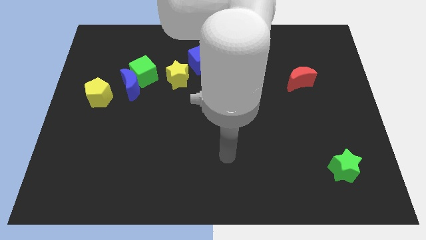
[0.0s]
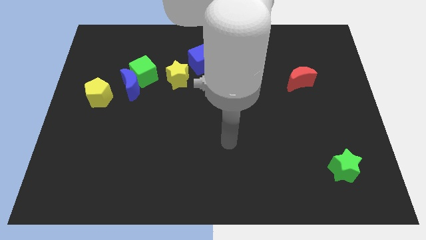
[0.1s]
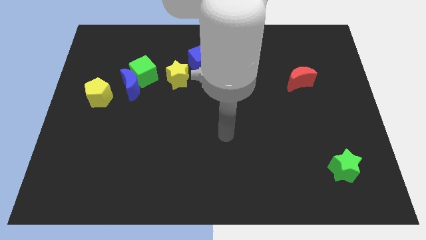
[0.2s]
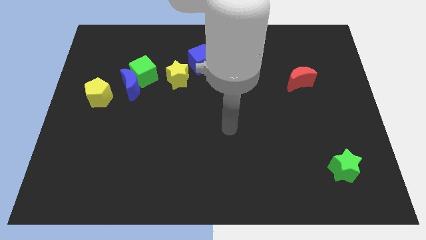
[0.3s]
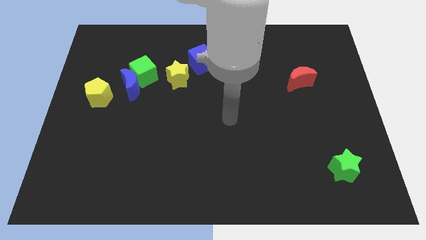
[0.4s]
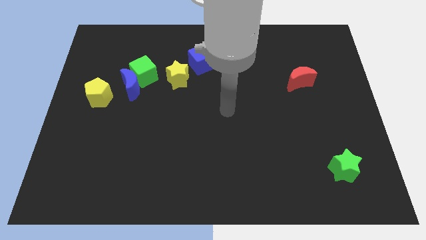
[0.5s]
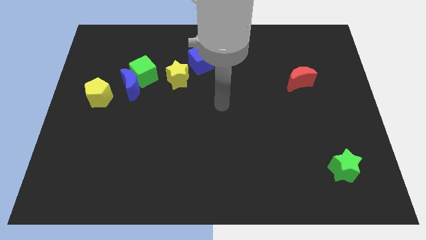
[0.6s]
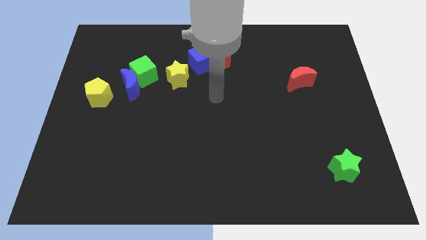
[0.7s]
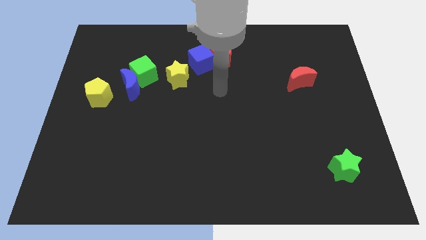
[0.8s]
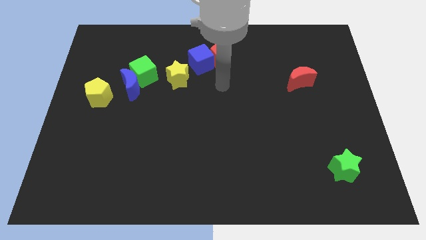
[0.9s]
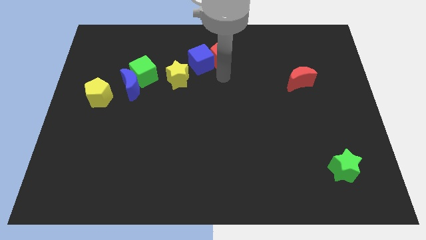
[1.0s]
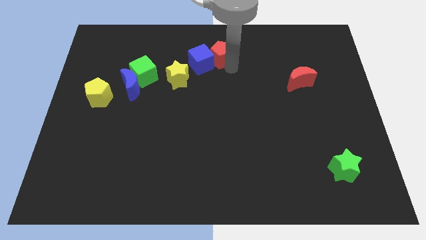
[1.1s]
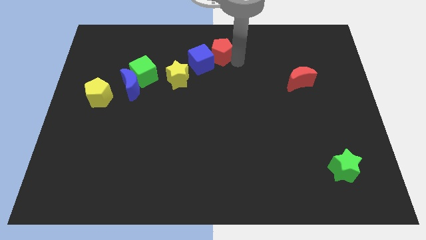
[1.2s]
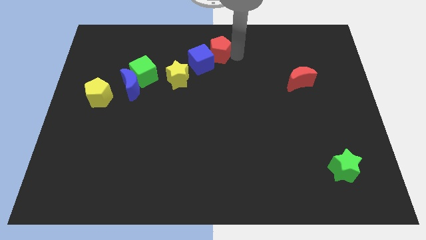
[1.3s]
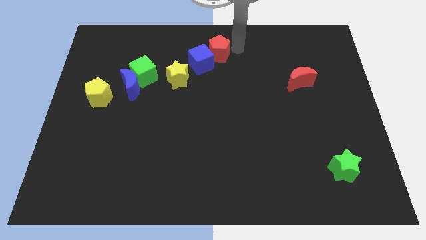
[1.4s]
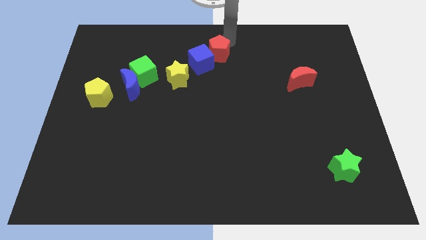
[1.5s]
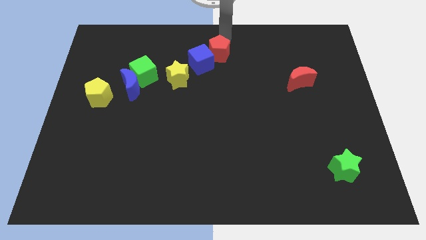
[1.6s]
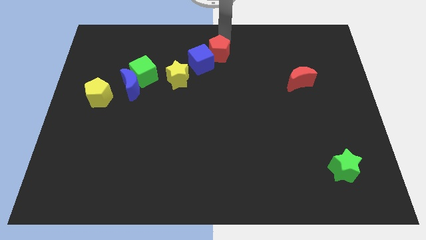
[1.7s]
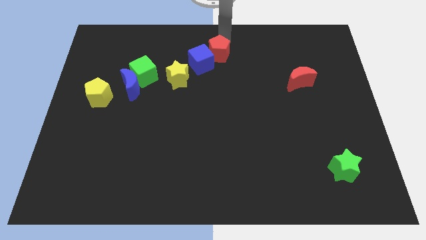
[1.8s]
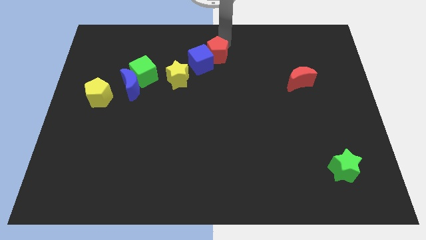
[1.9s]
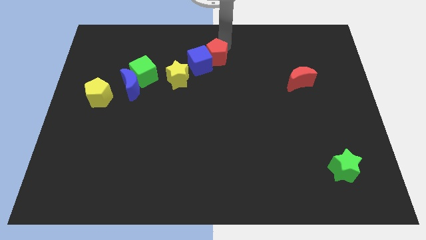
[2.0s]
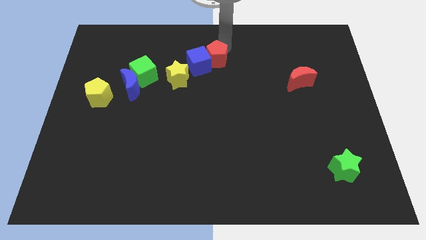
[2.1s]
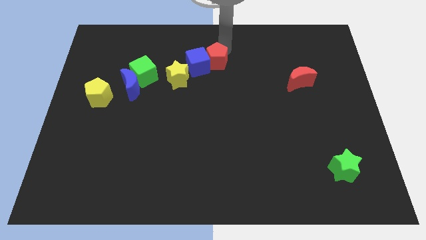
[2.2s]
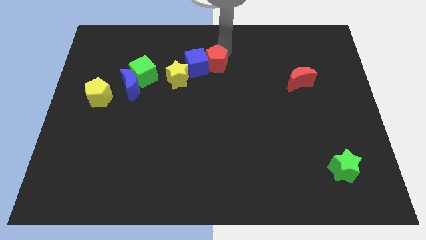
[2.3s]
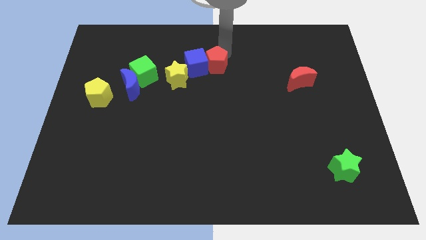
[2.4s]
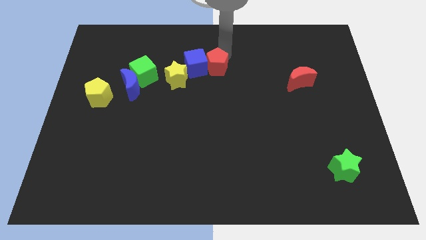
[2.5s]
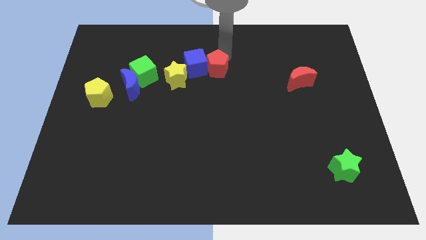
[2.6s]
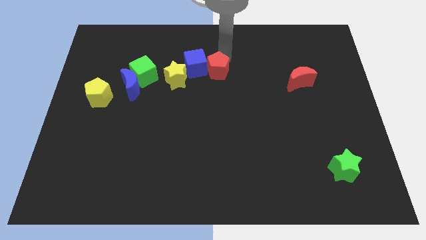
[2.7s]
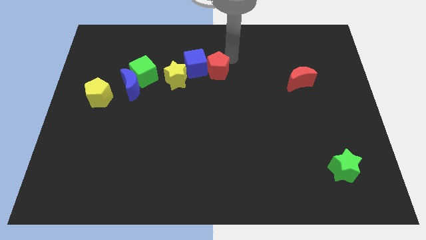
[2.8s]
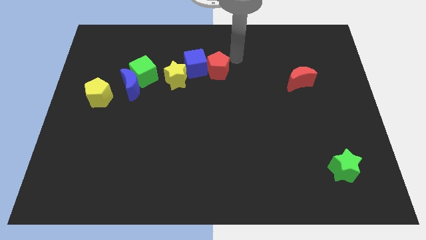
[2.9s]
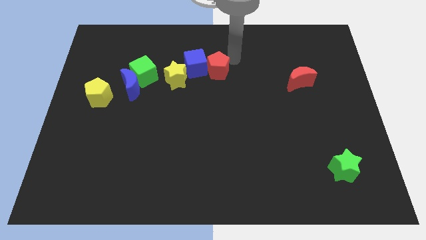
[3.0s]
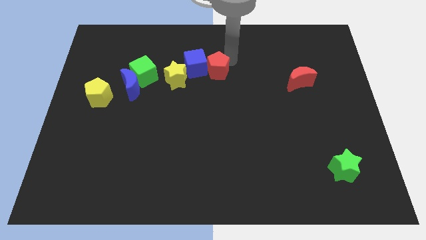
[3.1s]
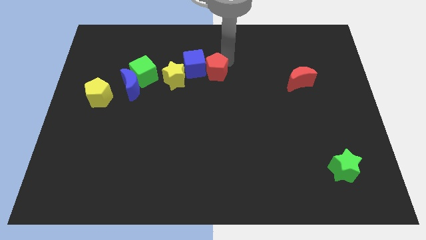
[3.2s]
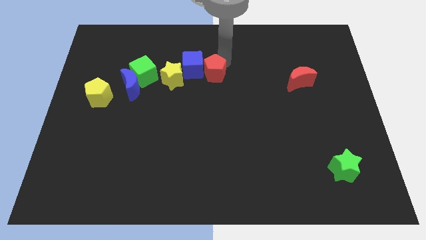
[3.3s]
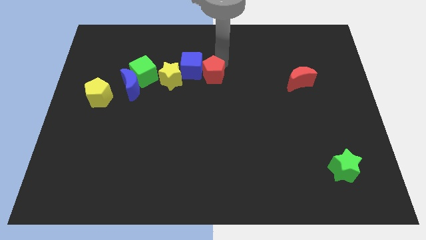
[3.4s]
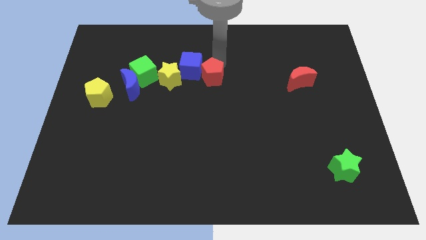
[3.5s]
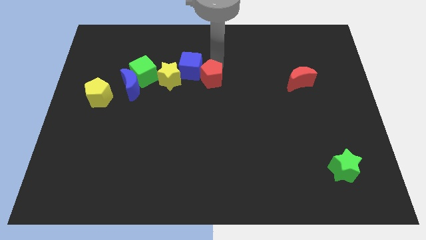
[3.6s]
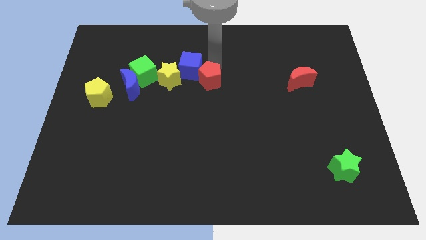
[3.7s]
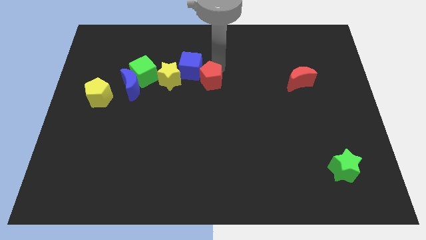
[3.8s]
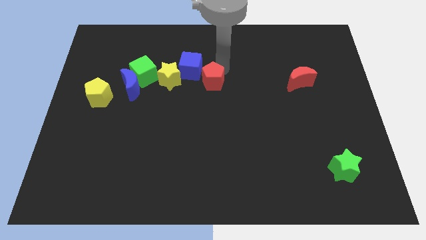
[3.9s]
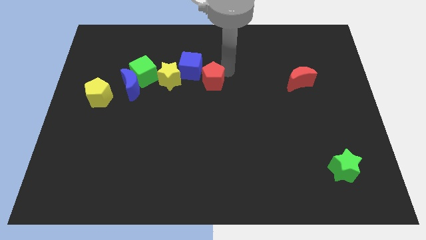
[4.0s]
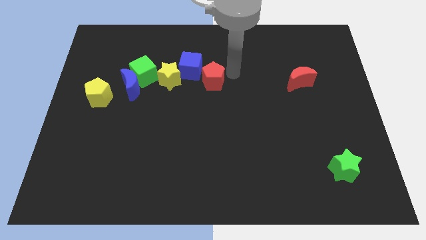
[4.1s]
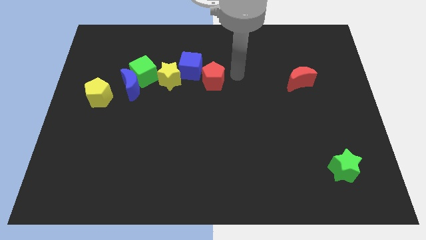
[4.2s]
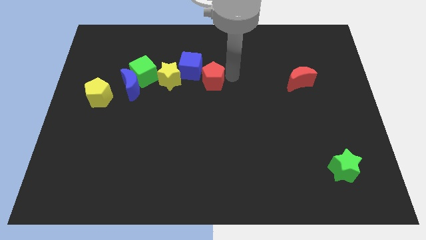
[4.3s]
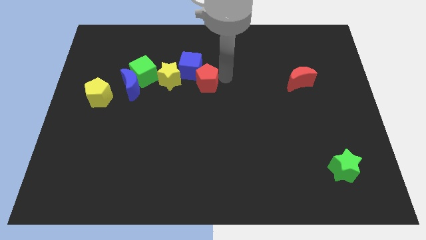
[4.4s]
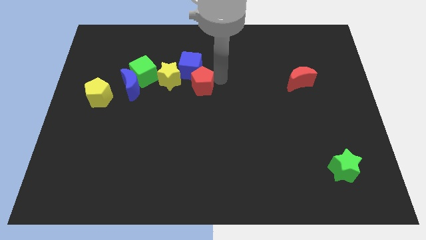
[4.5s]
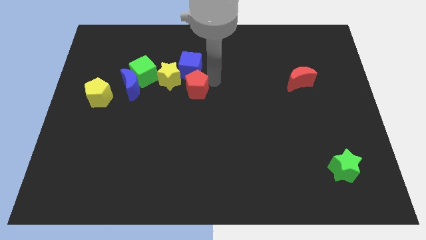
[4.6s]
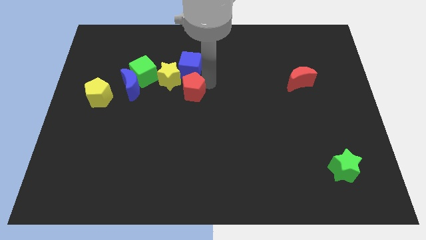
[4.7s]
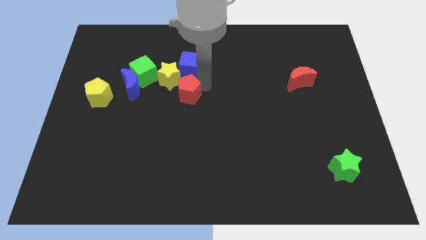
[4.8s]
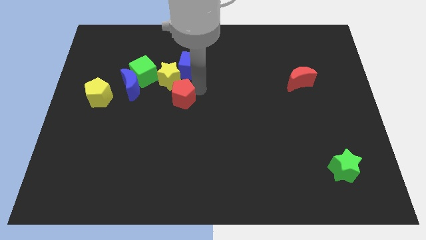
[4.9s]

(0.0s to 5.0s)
move the red pentagon to the bottom right side of the green cube

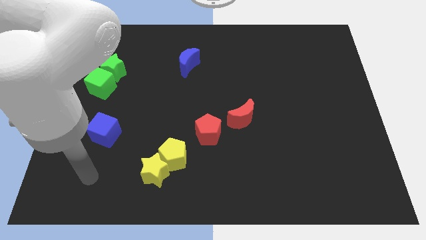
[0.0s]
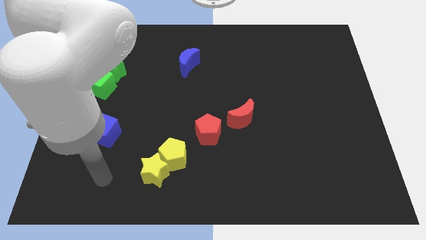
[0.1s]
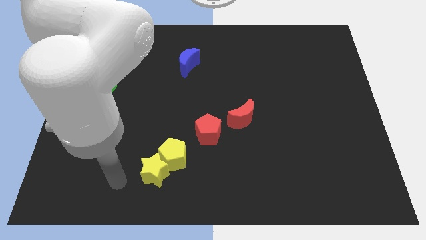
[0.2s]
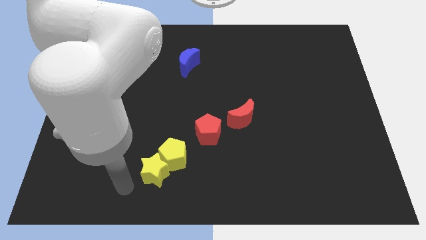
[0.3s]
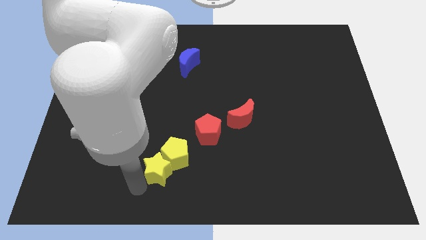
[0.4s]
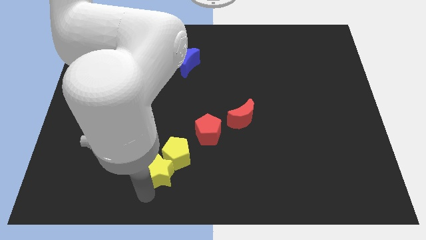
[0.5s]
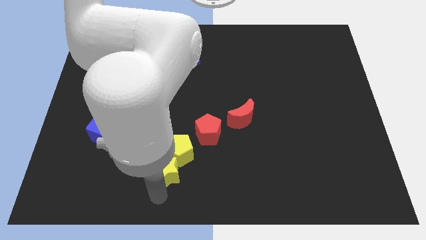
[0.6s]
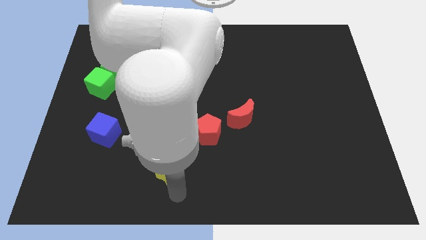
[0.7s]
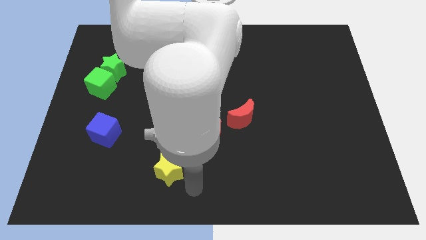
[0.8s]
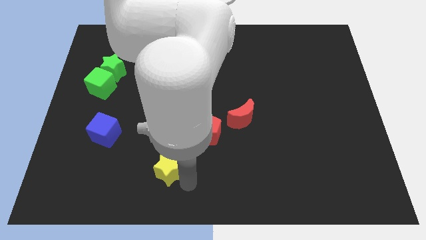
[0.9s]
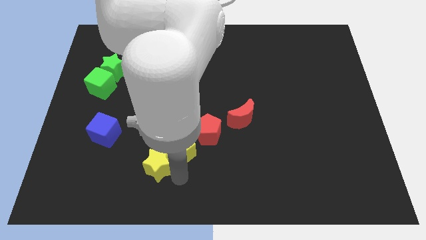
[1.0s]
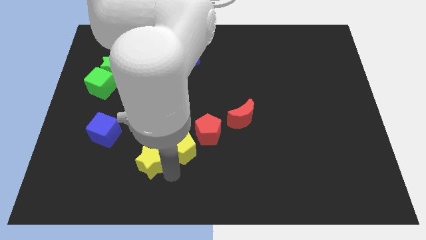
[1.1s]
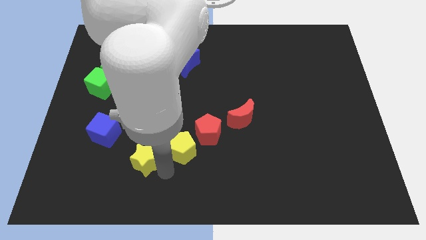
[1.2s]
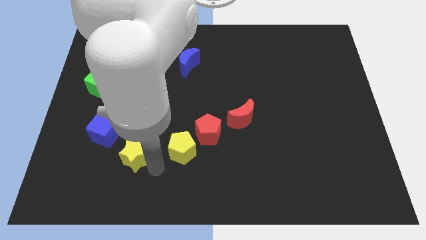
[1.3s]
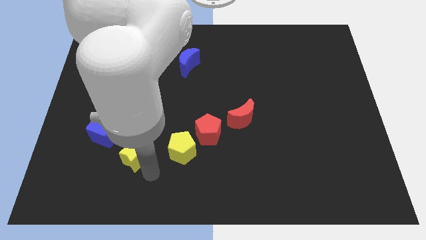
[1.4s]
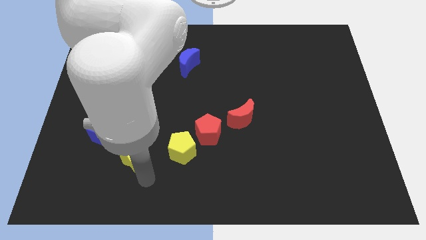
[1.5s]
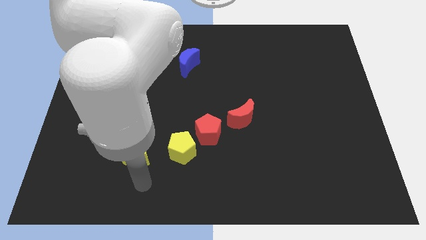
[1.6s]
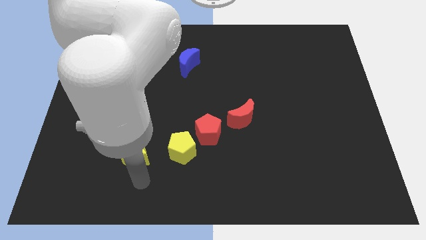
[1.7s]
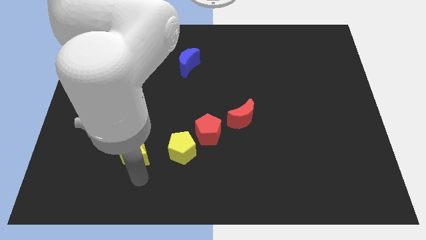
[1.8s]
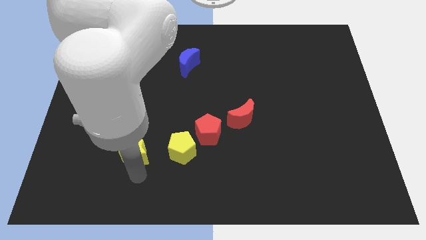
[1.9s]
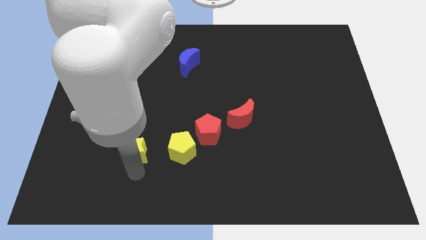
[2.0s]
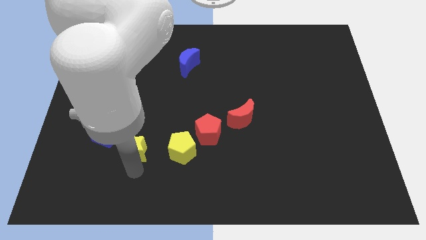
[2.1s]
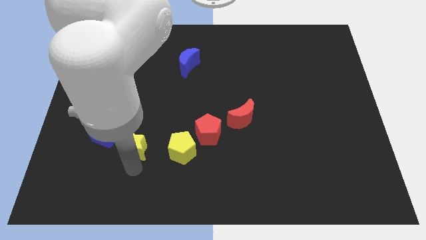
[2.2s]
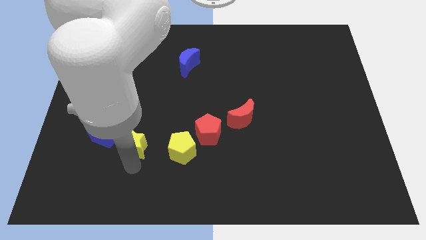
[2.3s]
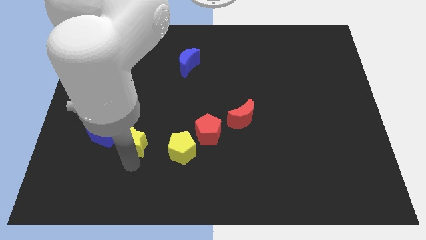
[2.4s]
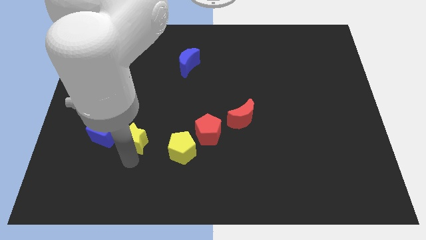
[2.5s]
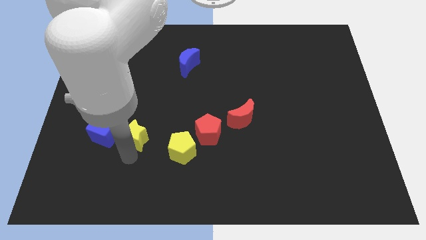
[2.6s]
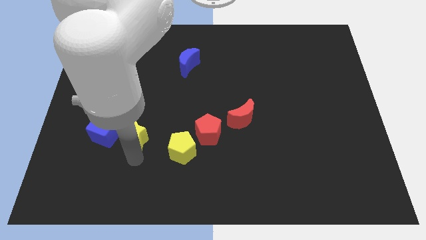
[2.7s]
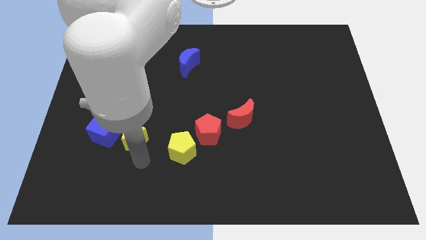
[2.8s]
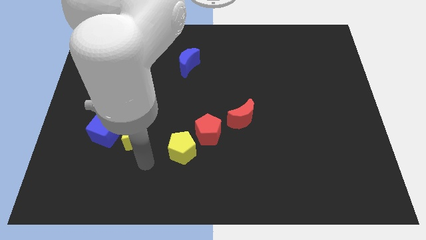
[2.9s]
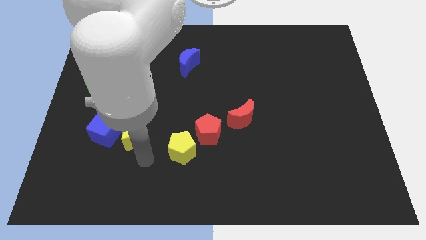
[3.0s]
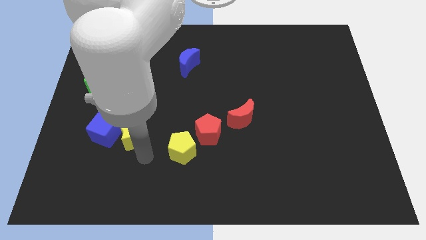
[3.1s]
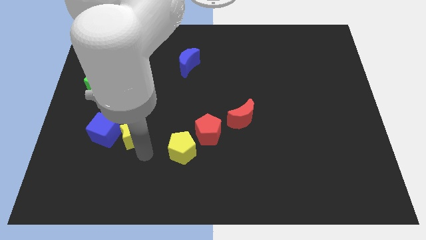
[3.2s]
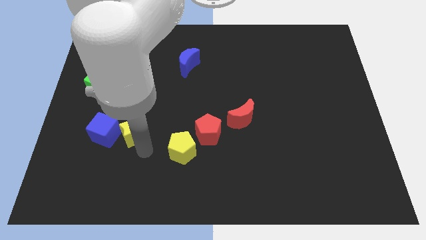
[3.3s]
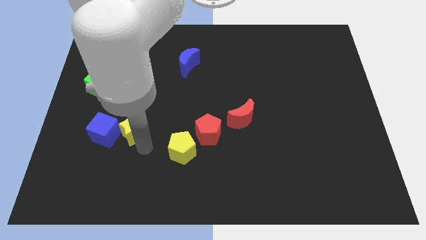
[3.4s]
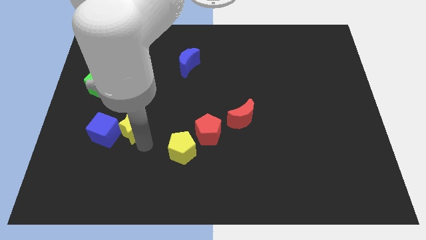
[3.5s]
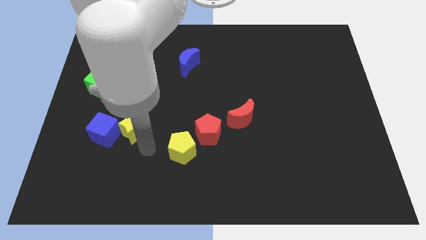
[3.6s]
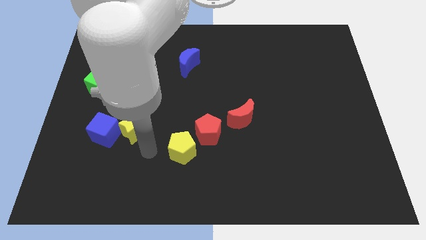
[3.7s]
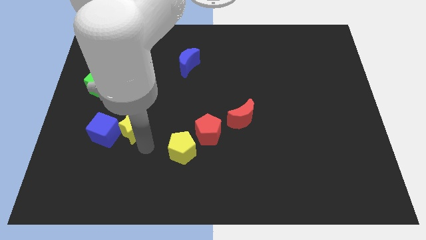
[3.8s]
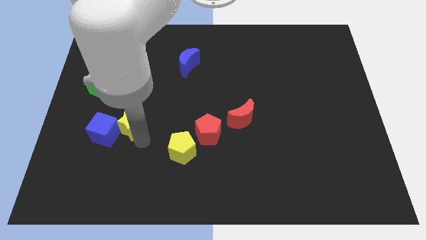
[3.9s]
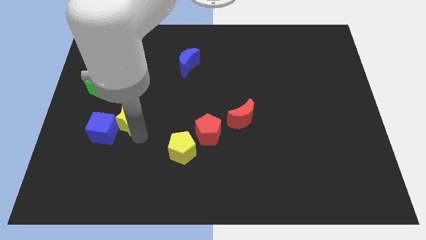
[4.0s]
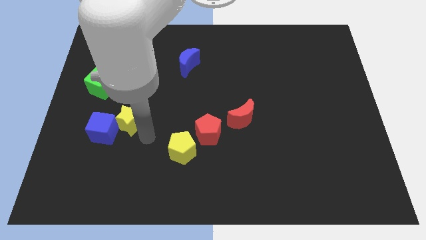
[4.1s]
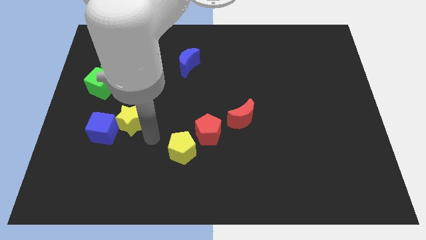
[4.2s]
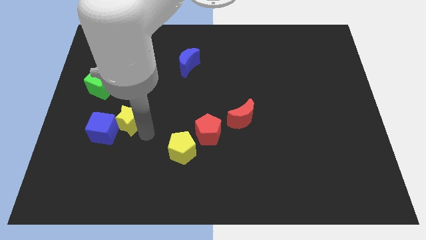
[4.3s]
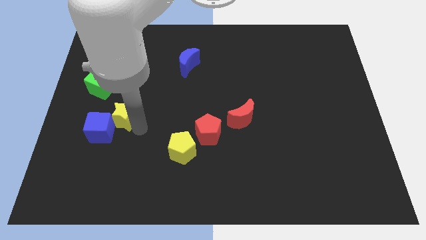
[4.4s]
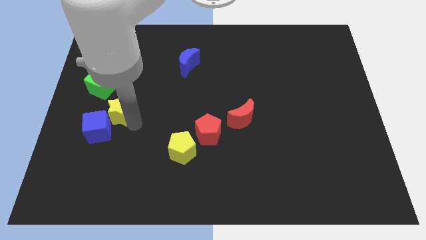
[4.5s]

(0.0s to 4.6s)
push the yellow star to the bottom side of the green star
